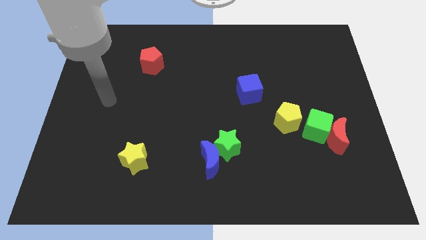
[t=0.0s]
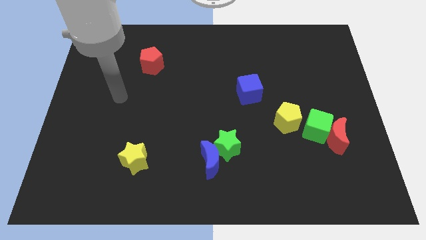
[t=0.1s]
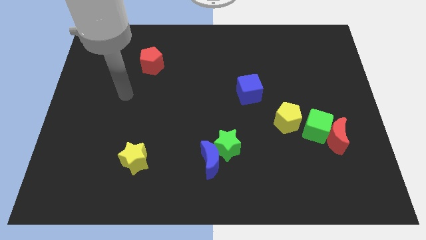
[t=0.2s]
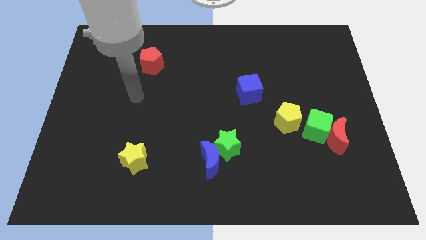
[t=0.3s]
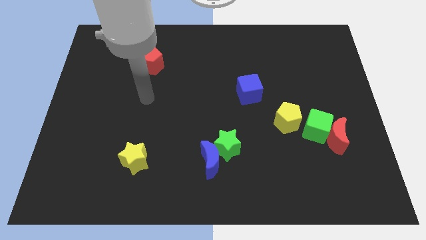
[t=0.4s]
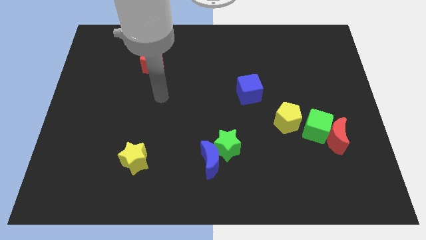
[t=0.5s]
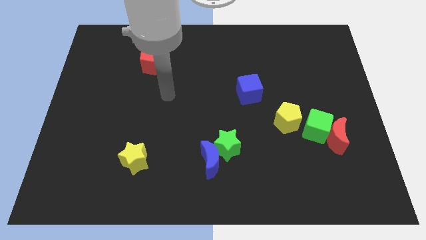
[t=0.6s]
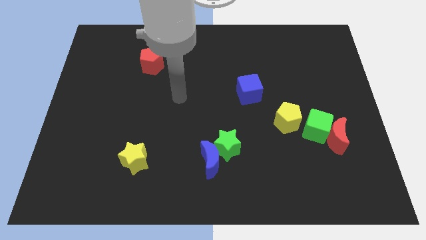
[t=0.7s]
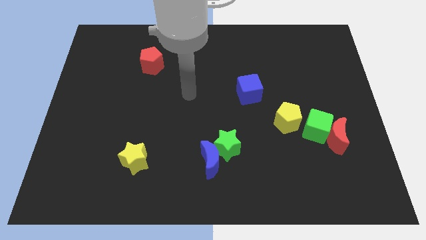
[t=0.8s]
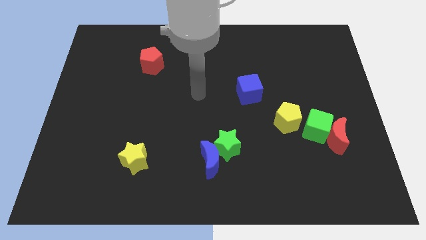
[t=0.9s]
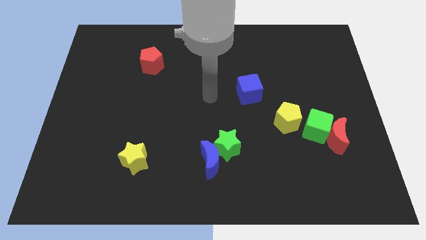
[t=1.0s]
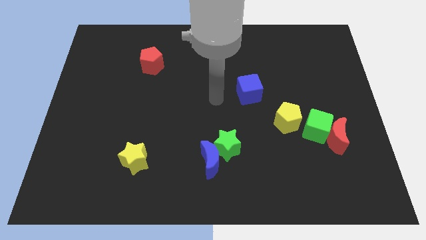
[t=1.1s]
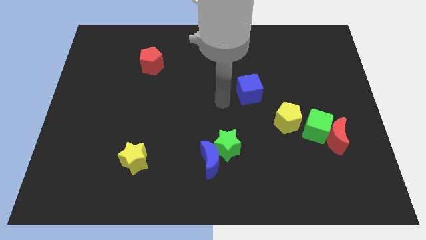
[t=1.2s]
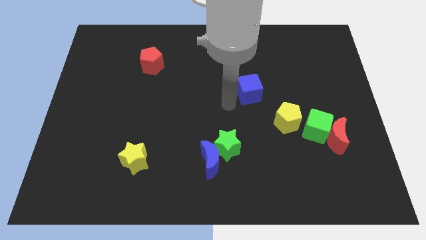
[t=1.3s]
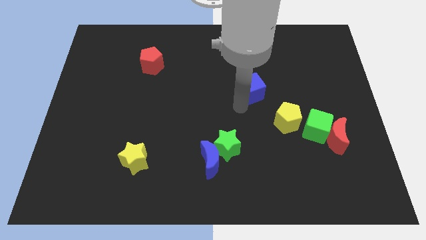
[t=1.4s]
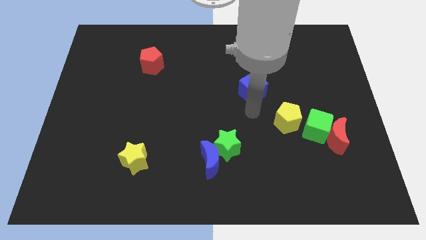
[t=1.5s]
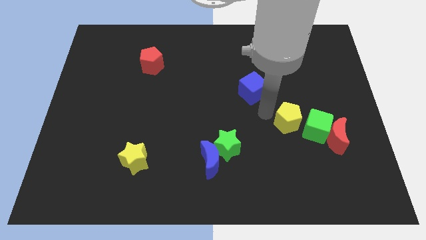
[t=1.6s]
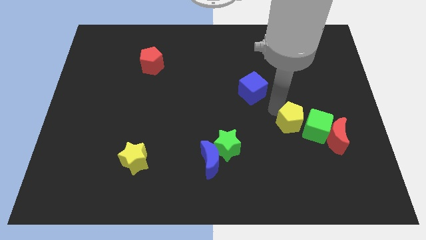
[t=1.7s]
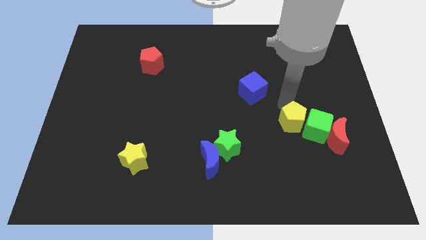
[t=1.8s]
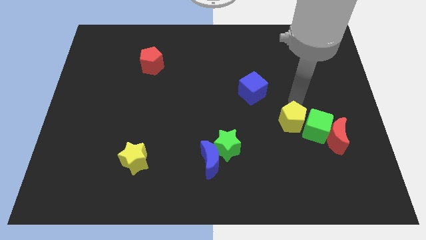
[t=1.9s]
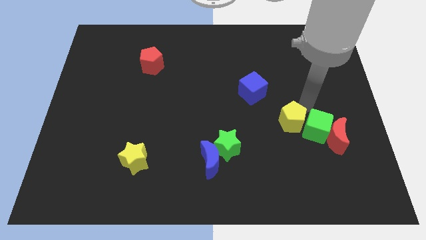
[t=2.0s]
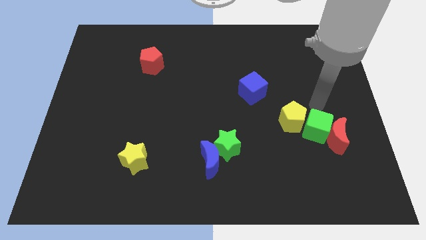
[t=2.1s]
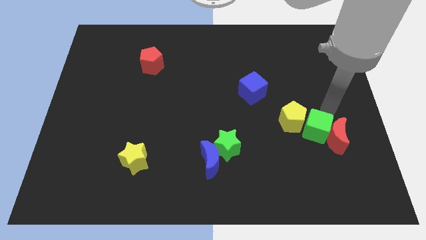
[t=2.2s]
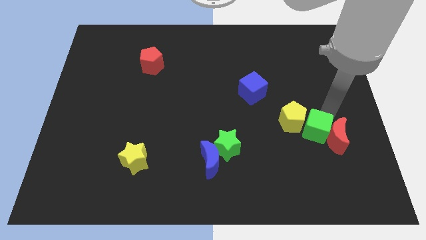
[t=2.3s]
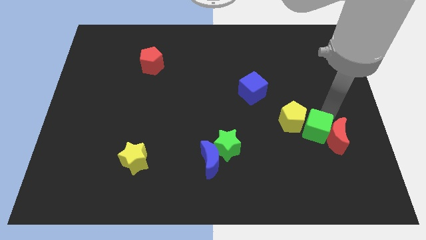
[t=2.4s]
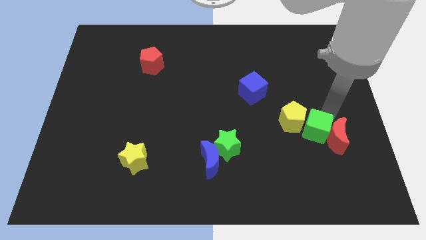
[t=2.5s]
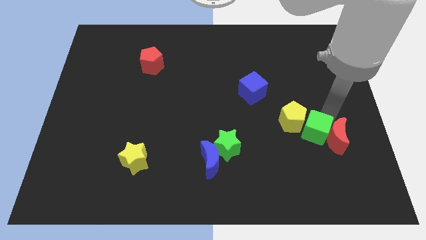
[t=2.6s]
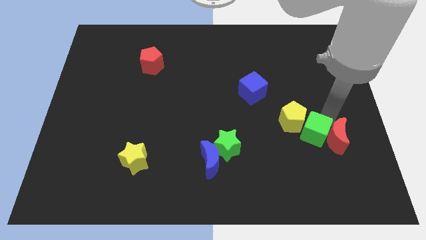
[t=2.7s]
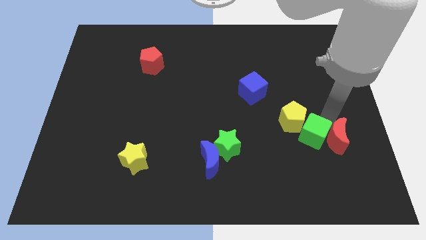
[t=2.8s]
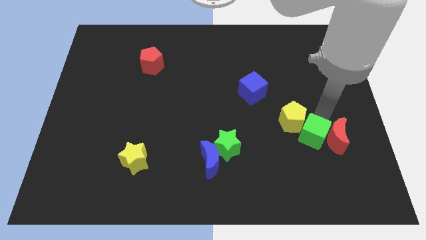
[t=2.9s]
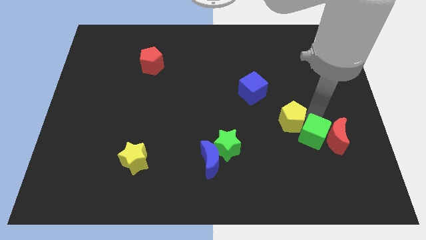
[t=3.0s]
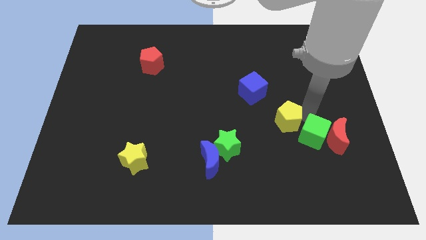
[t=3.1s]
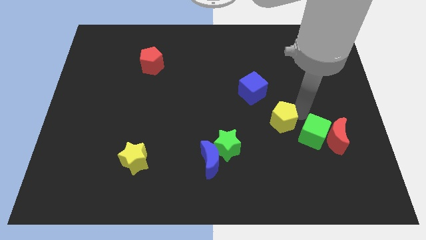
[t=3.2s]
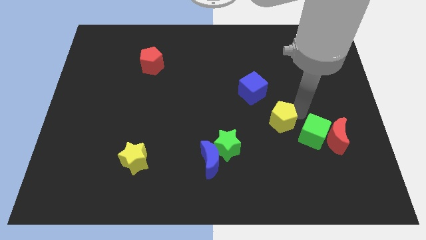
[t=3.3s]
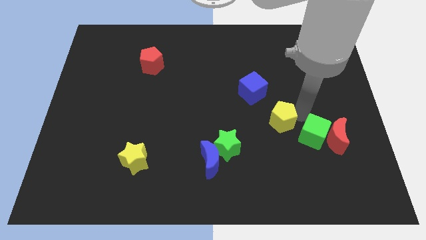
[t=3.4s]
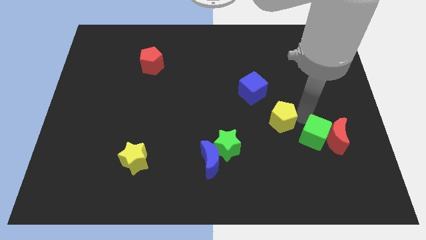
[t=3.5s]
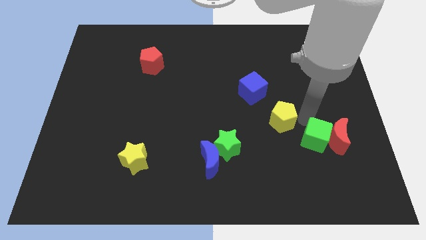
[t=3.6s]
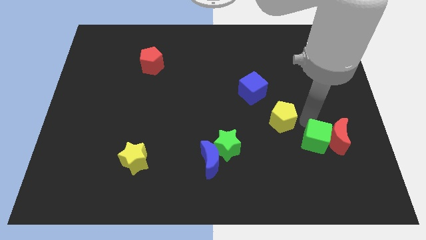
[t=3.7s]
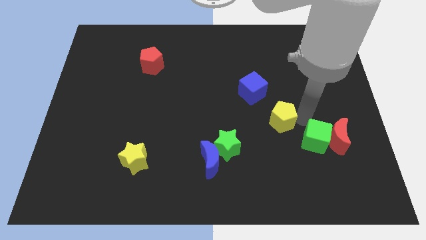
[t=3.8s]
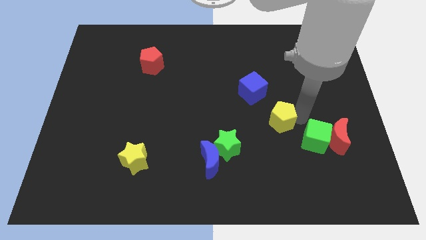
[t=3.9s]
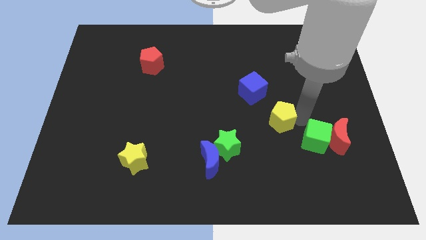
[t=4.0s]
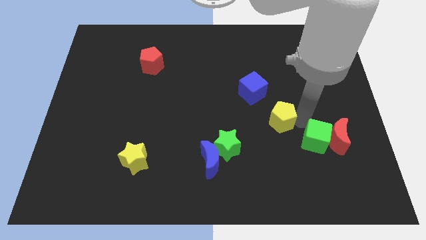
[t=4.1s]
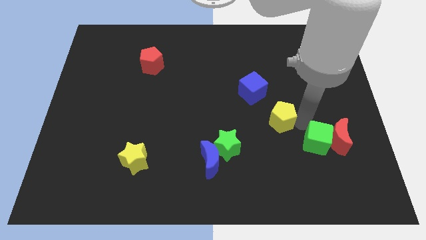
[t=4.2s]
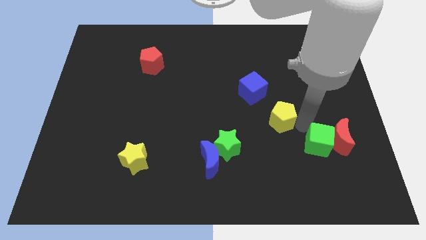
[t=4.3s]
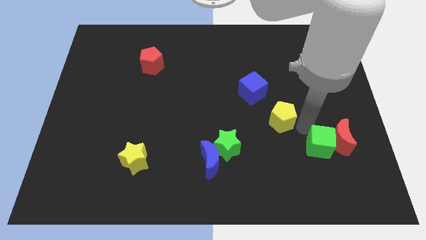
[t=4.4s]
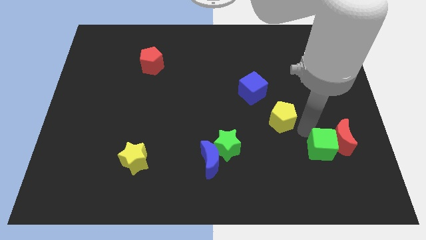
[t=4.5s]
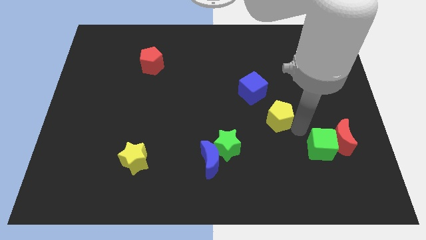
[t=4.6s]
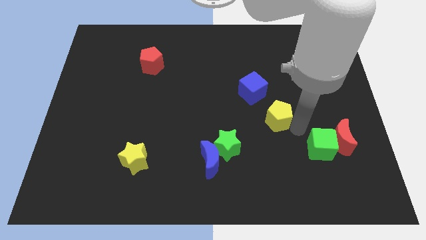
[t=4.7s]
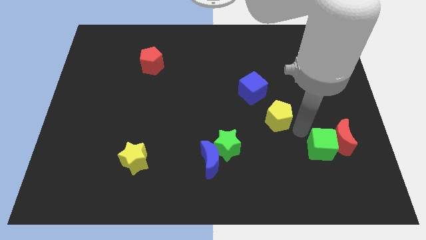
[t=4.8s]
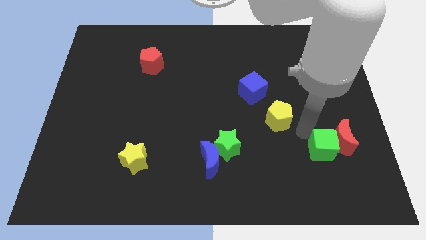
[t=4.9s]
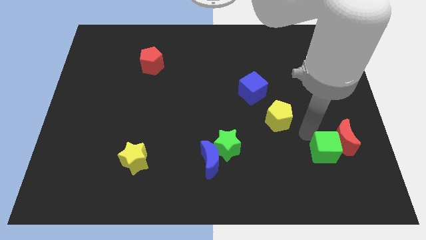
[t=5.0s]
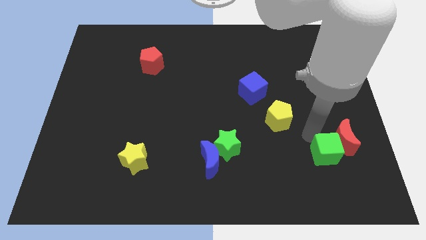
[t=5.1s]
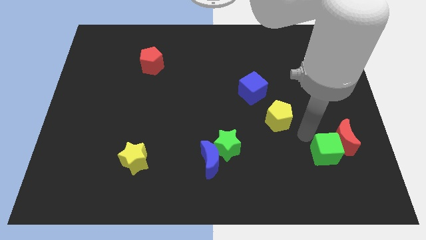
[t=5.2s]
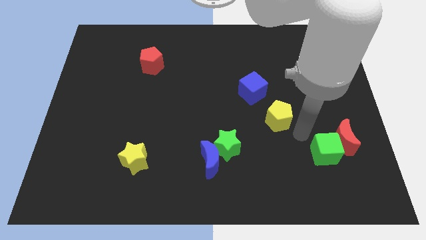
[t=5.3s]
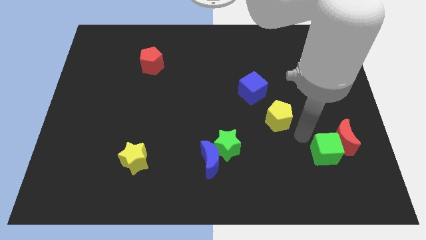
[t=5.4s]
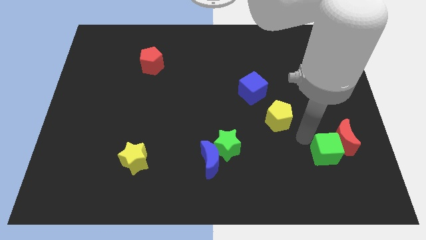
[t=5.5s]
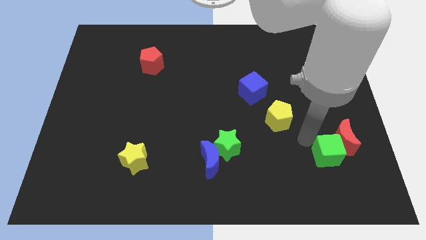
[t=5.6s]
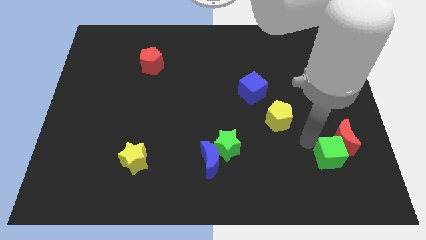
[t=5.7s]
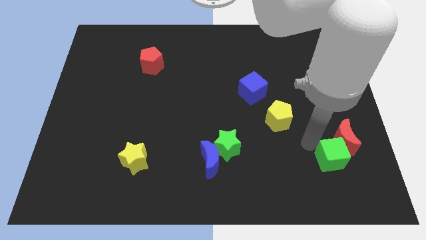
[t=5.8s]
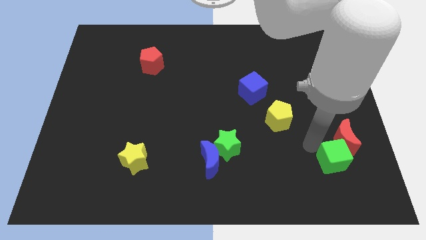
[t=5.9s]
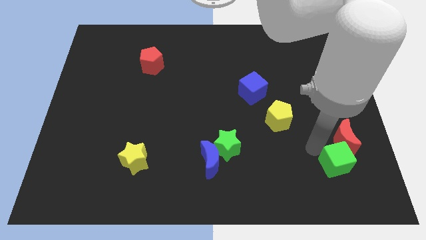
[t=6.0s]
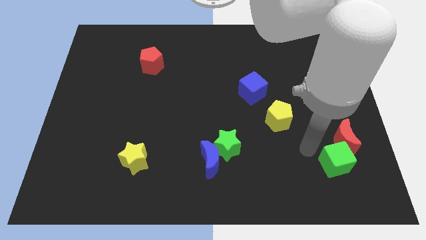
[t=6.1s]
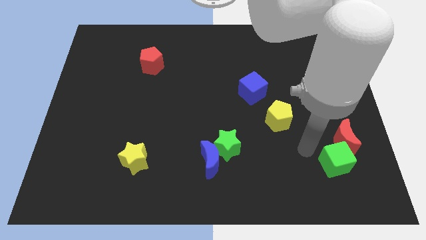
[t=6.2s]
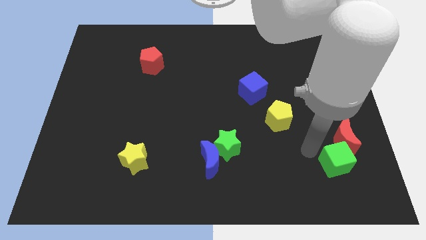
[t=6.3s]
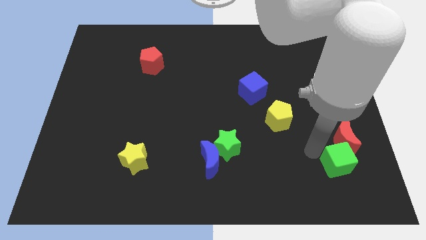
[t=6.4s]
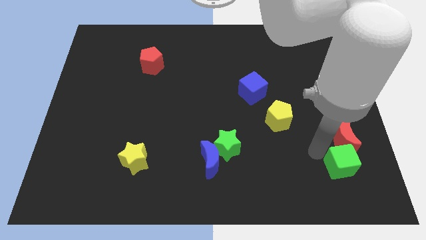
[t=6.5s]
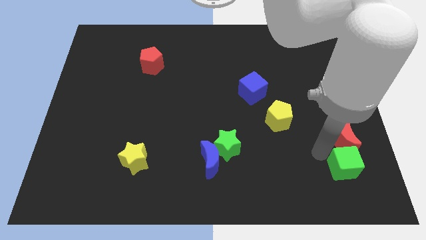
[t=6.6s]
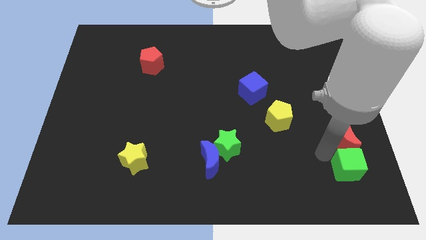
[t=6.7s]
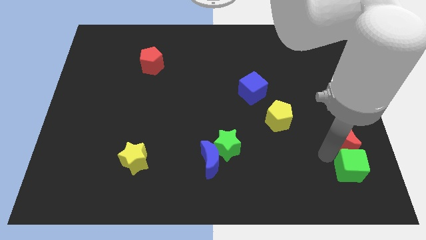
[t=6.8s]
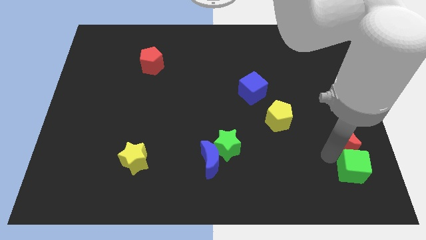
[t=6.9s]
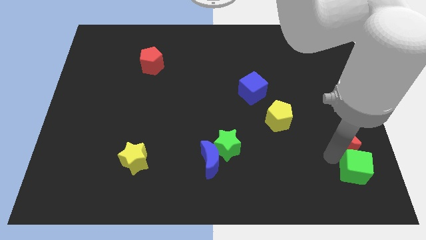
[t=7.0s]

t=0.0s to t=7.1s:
push the green cube to the bottom right corner
